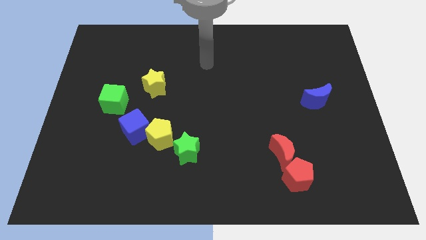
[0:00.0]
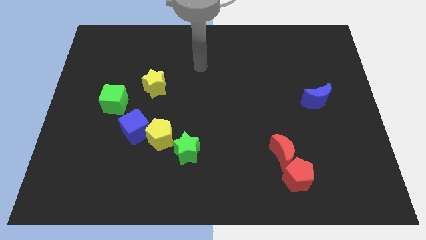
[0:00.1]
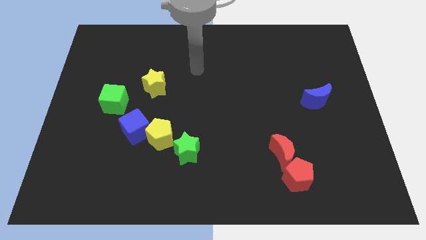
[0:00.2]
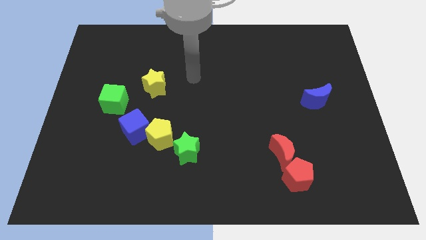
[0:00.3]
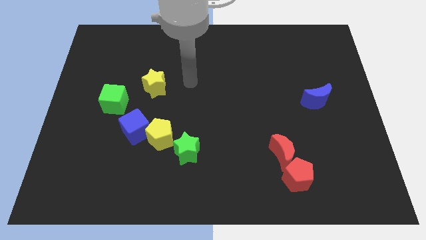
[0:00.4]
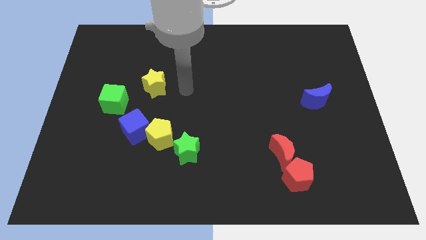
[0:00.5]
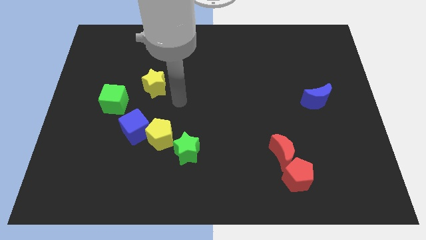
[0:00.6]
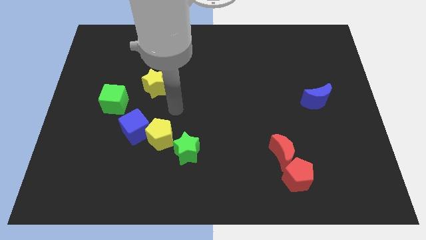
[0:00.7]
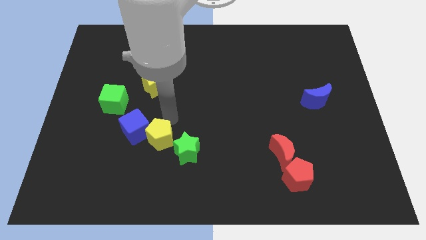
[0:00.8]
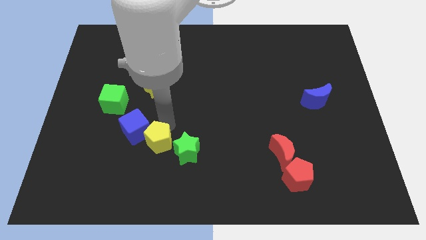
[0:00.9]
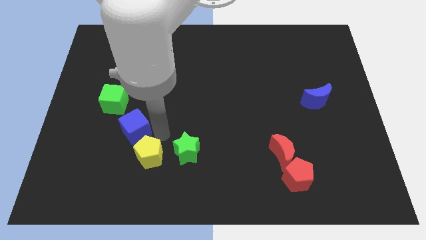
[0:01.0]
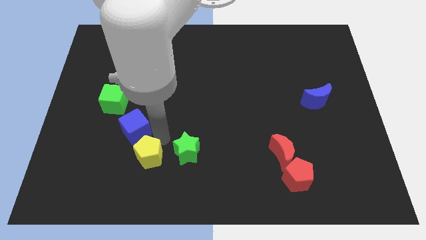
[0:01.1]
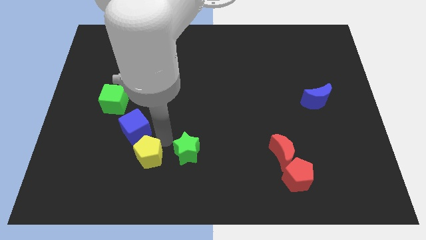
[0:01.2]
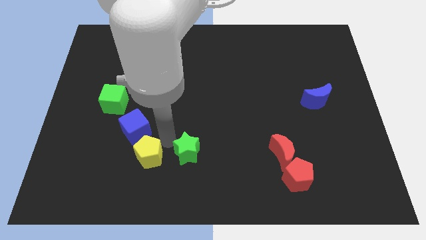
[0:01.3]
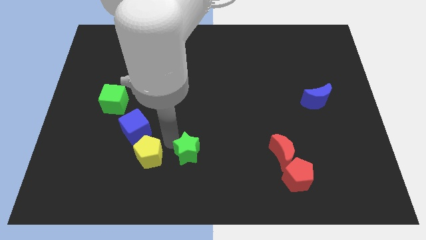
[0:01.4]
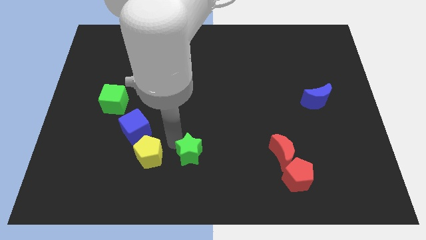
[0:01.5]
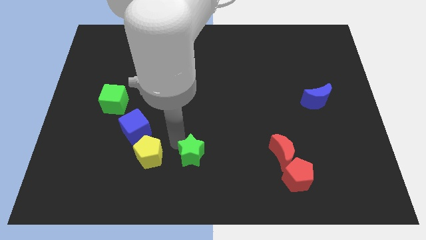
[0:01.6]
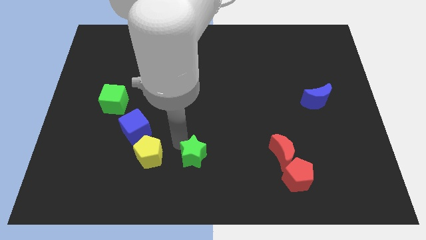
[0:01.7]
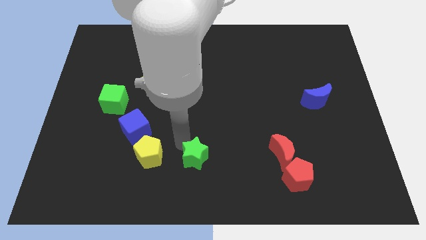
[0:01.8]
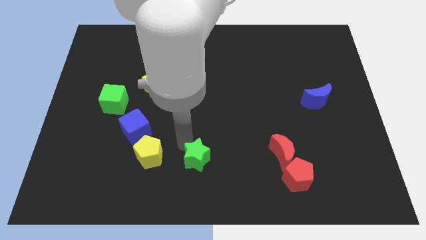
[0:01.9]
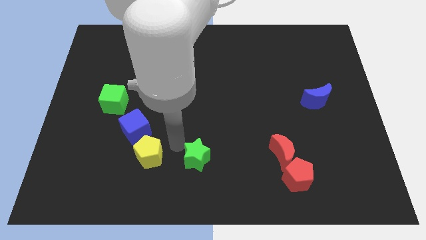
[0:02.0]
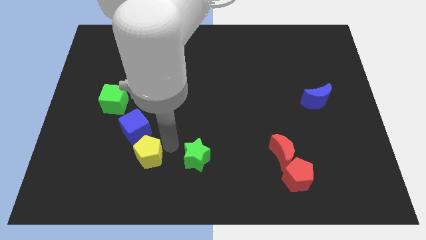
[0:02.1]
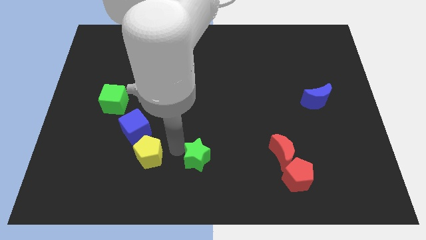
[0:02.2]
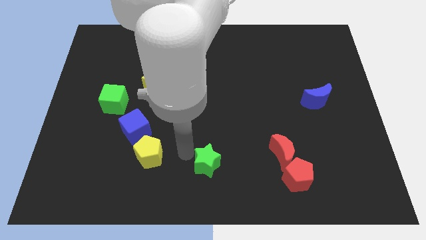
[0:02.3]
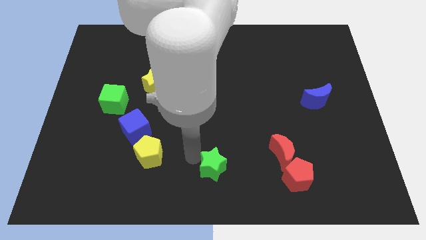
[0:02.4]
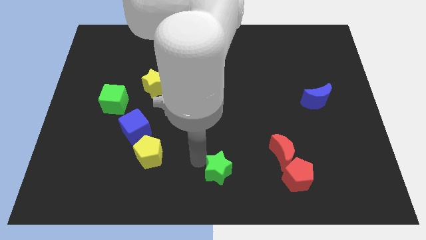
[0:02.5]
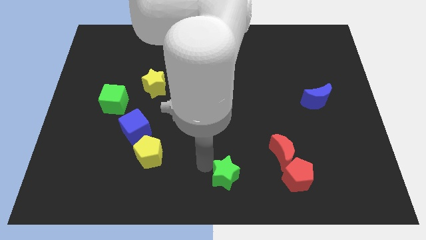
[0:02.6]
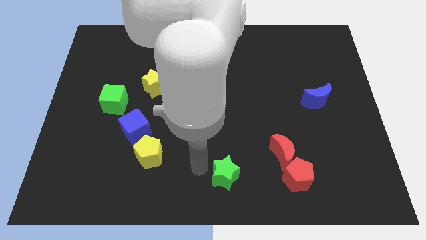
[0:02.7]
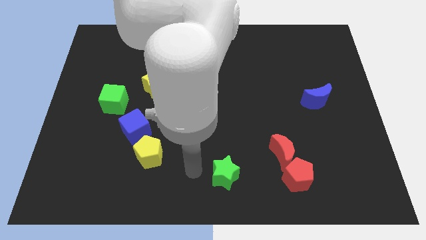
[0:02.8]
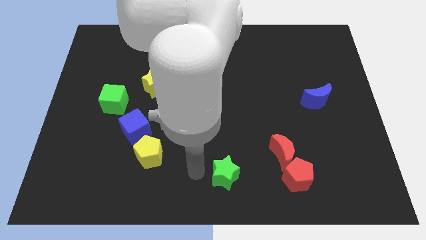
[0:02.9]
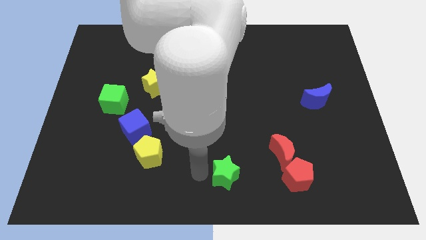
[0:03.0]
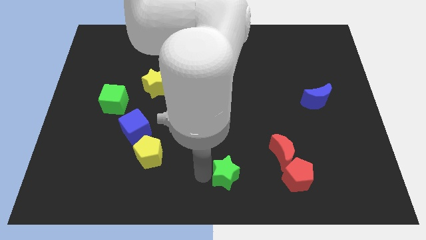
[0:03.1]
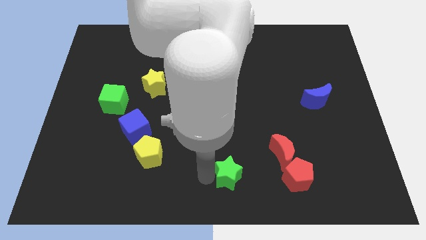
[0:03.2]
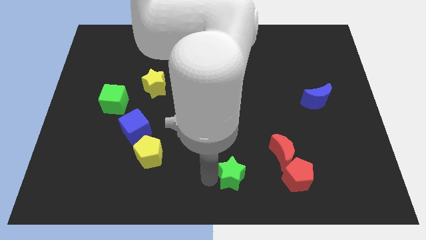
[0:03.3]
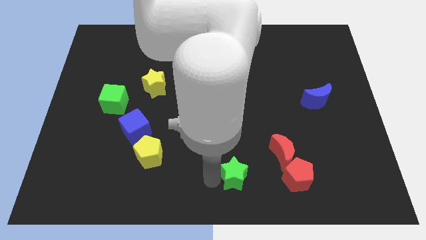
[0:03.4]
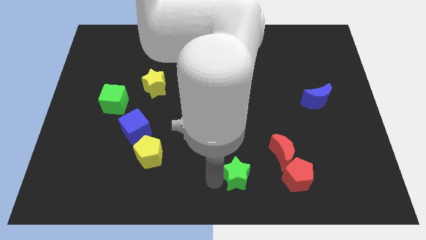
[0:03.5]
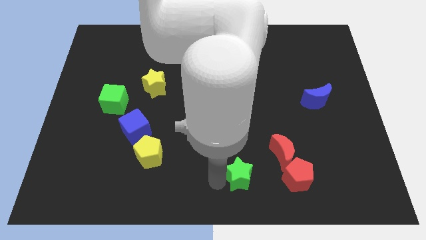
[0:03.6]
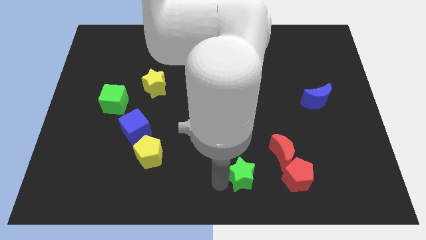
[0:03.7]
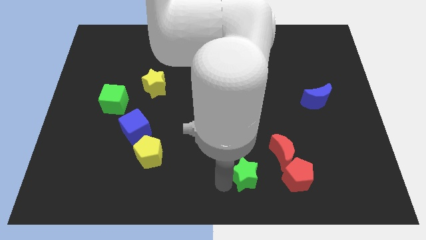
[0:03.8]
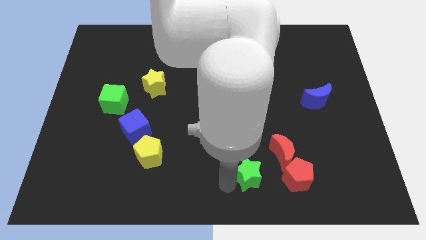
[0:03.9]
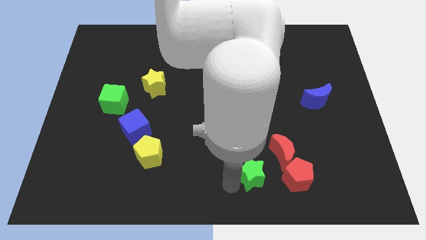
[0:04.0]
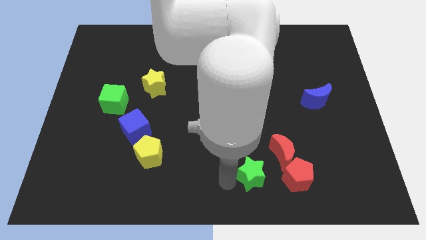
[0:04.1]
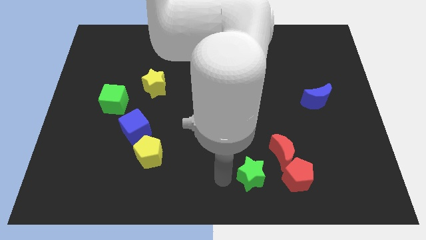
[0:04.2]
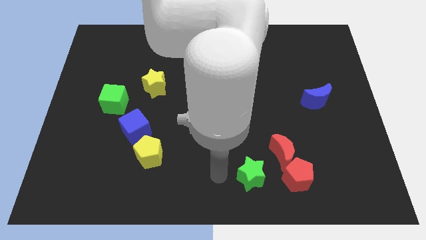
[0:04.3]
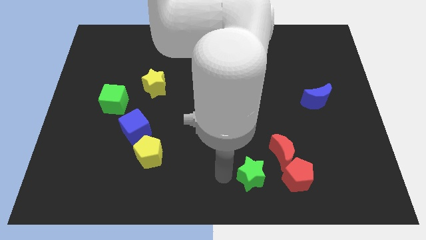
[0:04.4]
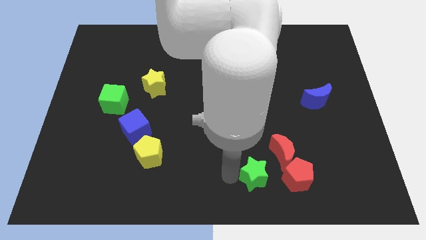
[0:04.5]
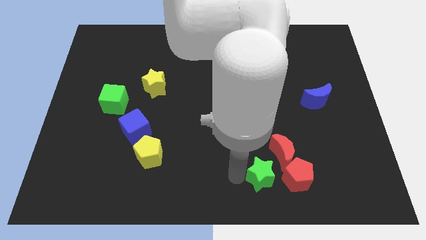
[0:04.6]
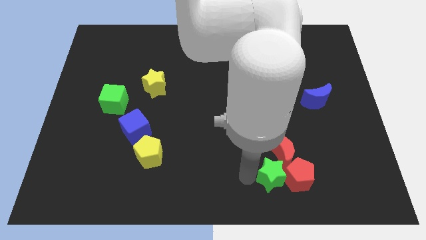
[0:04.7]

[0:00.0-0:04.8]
move the green star close to the red pentagon

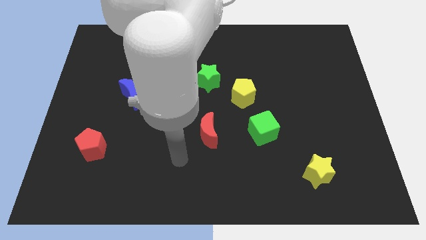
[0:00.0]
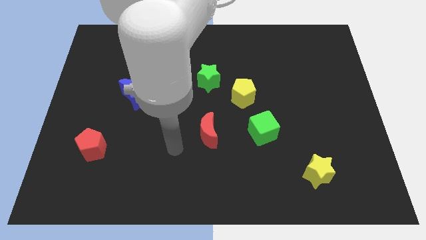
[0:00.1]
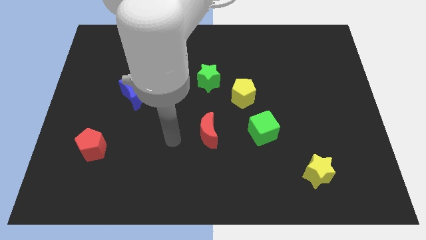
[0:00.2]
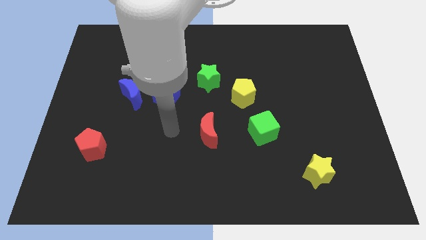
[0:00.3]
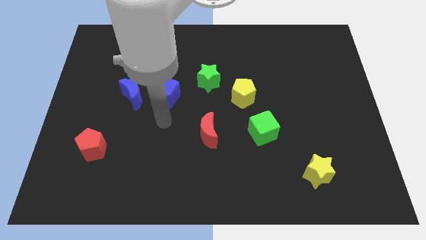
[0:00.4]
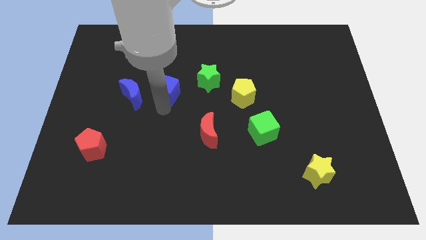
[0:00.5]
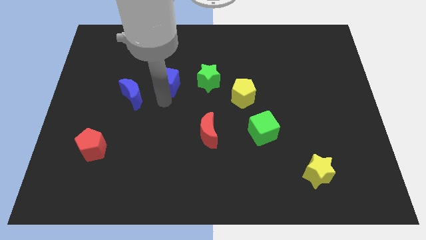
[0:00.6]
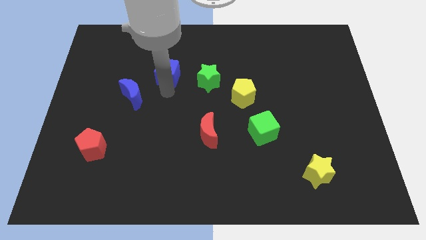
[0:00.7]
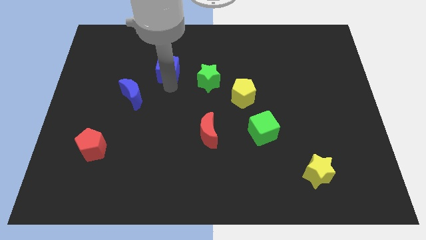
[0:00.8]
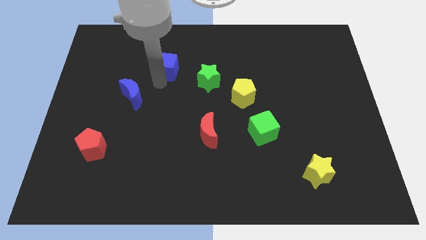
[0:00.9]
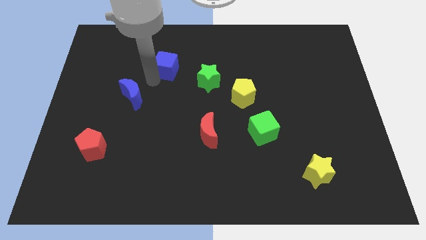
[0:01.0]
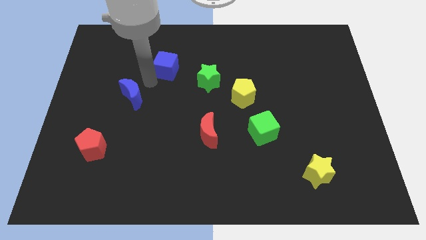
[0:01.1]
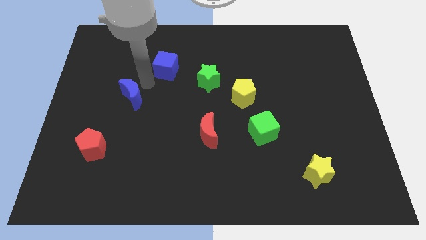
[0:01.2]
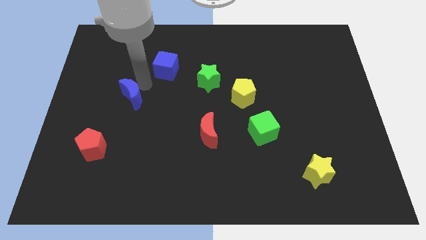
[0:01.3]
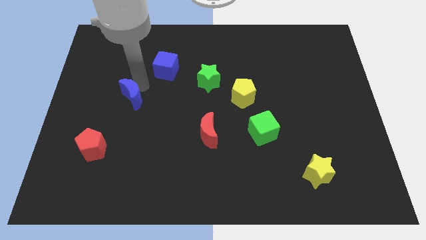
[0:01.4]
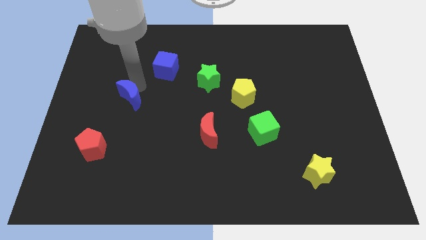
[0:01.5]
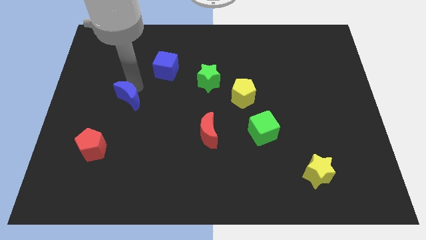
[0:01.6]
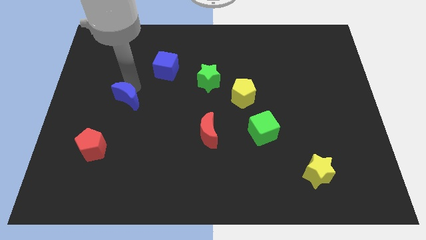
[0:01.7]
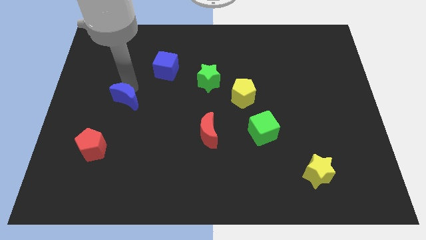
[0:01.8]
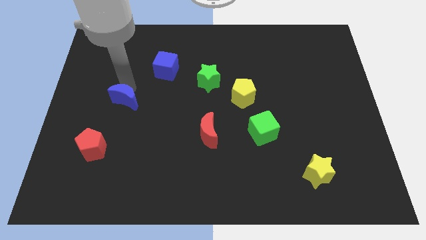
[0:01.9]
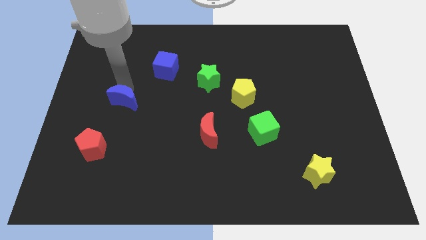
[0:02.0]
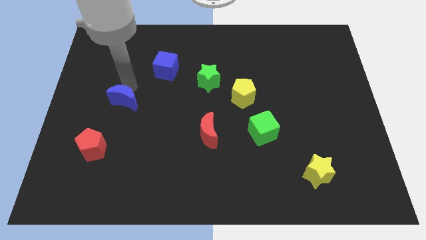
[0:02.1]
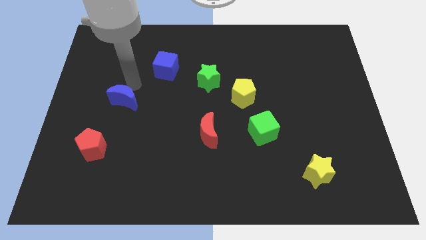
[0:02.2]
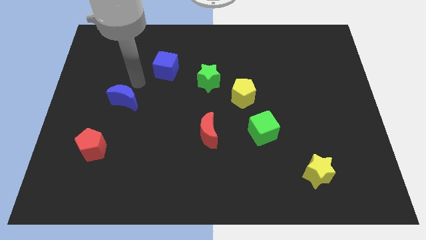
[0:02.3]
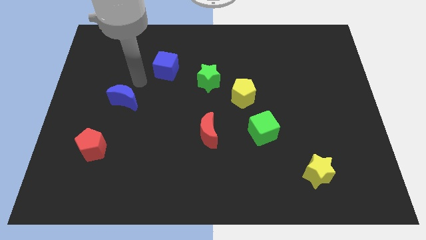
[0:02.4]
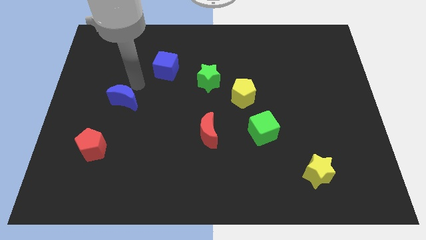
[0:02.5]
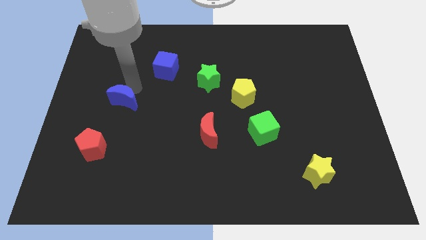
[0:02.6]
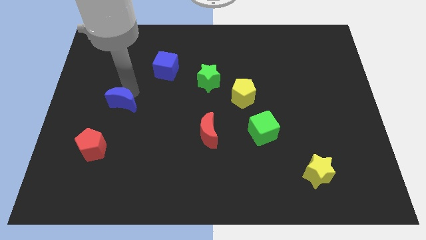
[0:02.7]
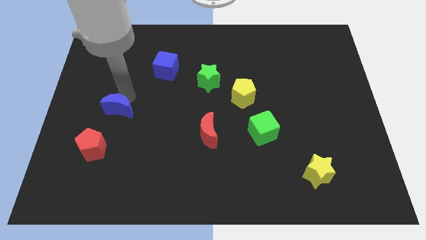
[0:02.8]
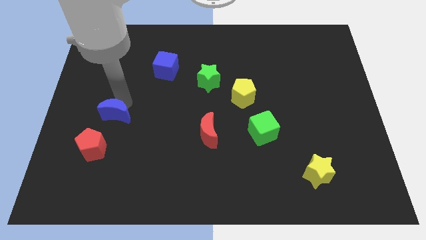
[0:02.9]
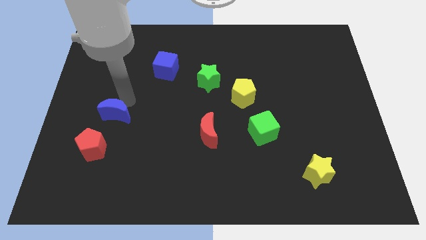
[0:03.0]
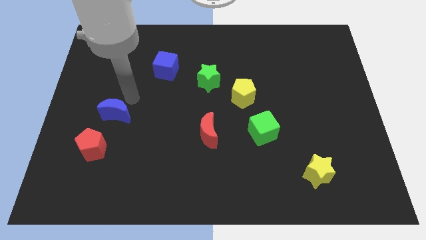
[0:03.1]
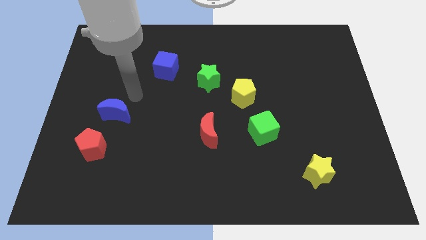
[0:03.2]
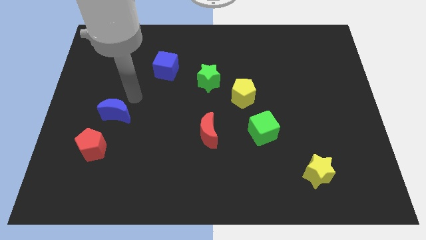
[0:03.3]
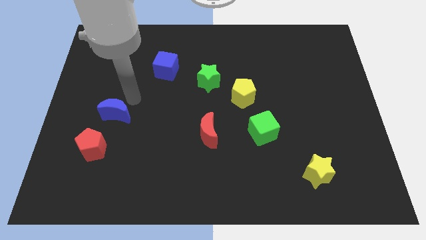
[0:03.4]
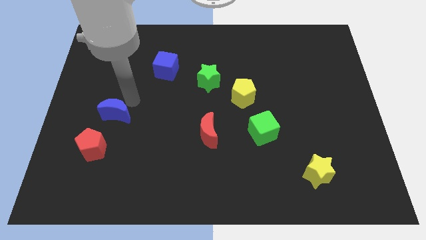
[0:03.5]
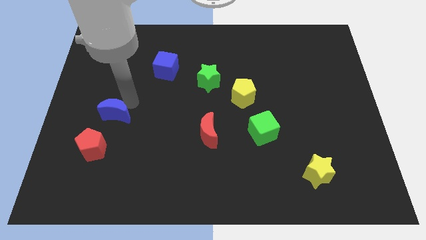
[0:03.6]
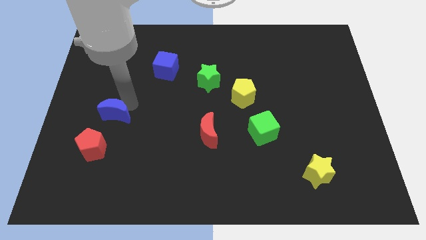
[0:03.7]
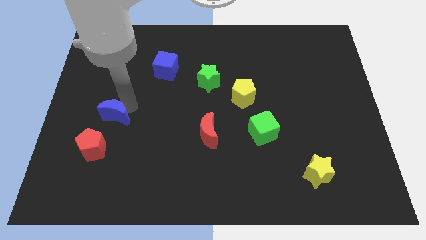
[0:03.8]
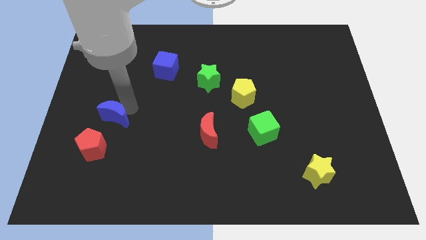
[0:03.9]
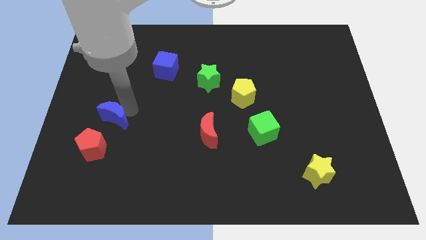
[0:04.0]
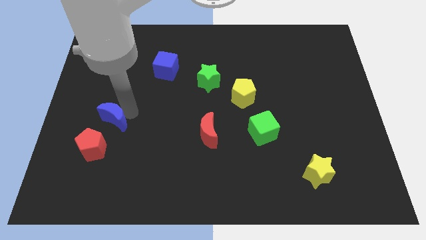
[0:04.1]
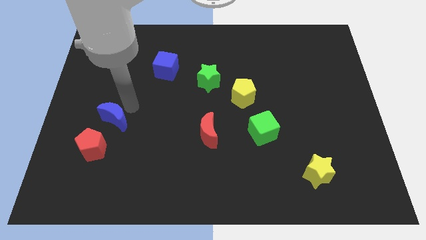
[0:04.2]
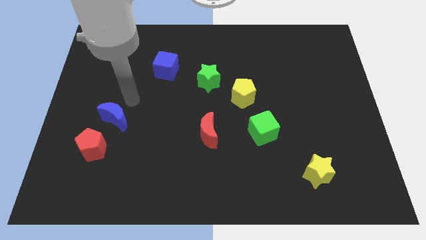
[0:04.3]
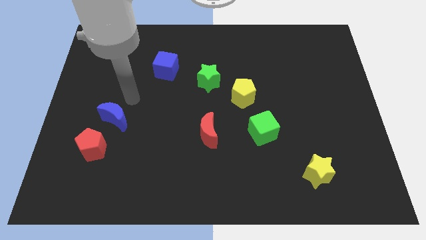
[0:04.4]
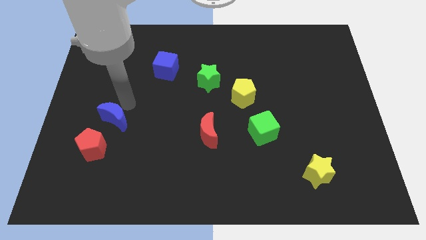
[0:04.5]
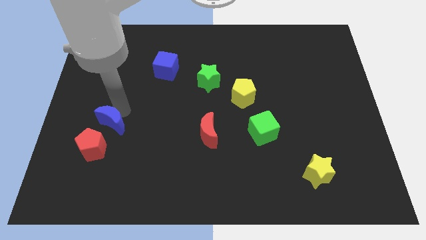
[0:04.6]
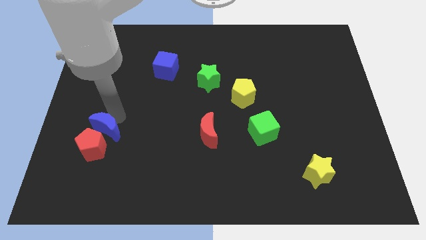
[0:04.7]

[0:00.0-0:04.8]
slide the blue moon towards the red pentagon
